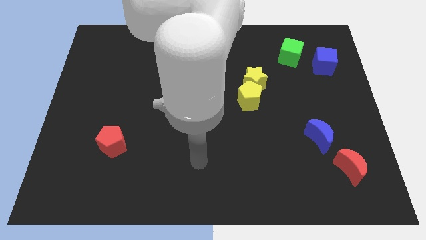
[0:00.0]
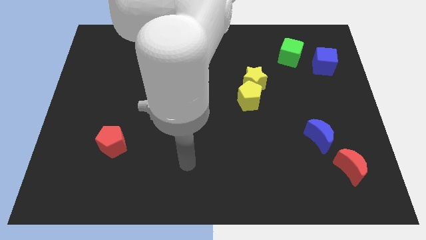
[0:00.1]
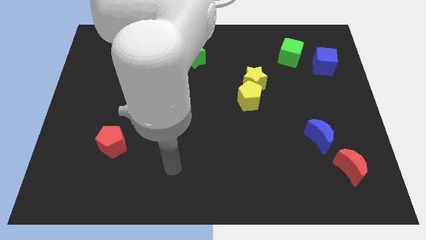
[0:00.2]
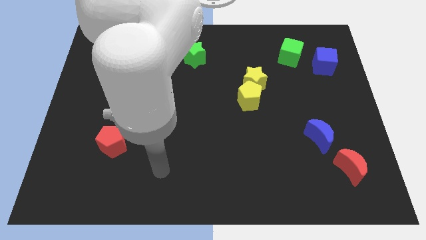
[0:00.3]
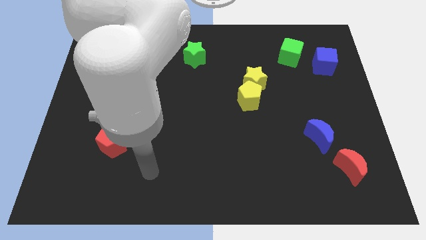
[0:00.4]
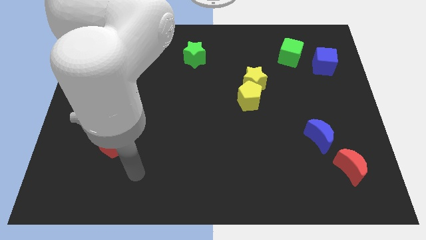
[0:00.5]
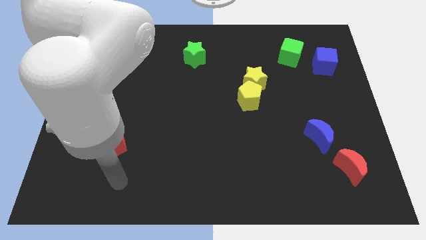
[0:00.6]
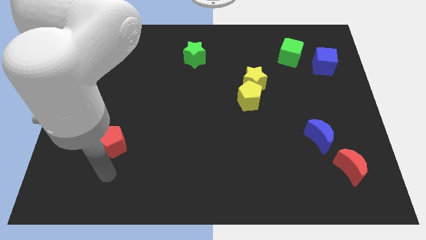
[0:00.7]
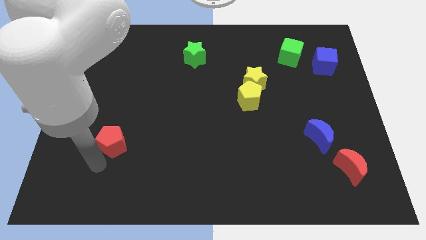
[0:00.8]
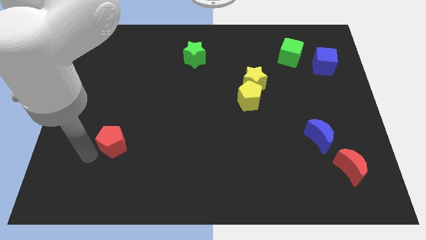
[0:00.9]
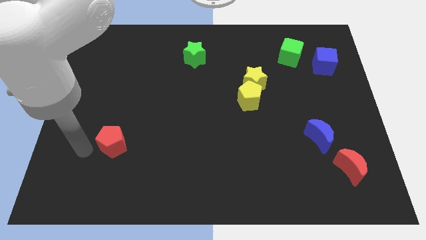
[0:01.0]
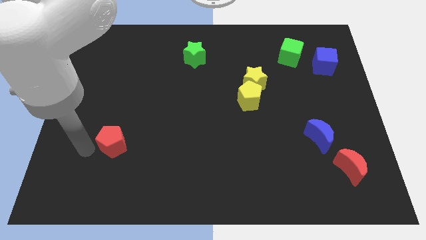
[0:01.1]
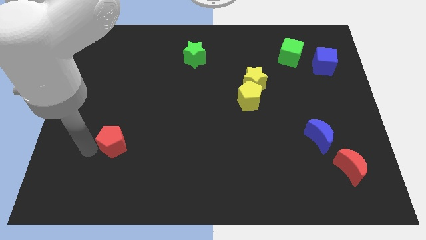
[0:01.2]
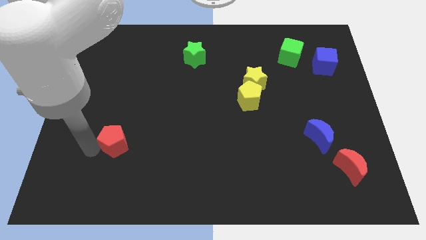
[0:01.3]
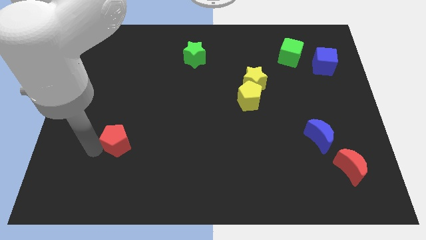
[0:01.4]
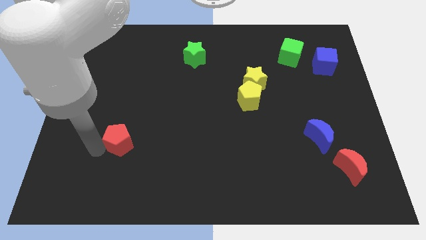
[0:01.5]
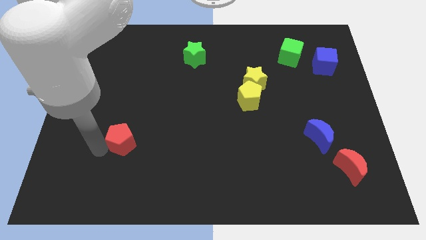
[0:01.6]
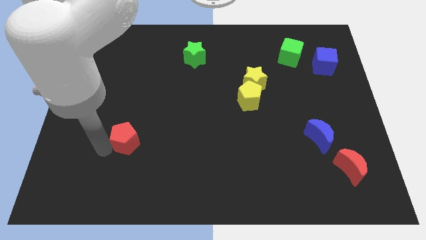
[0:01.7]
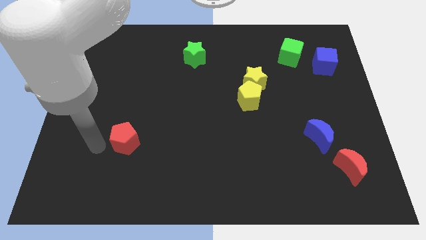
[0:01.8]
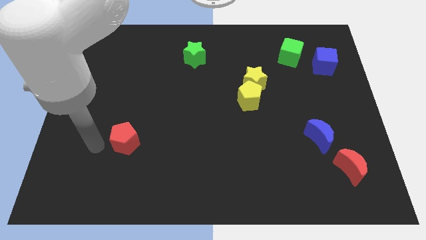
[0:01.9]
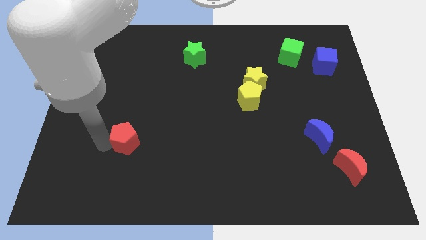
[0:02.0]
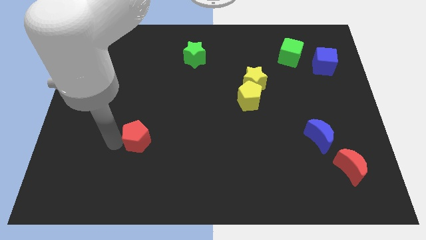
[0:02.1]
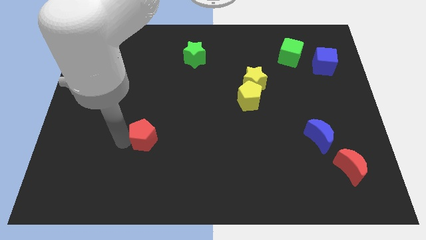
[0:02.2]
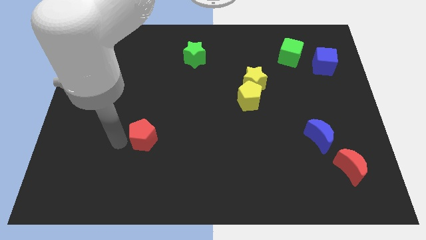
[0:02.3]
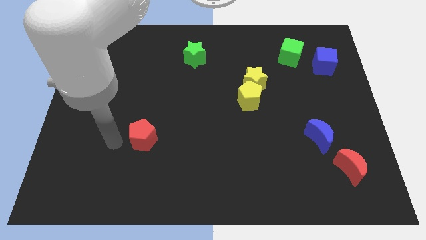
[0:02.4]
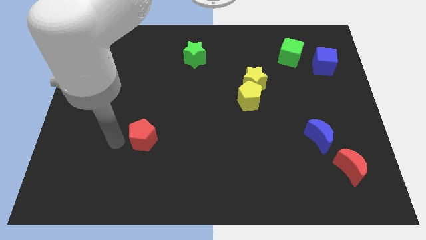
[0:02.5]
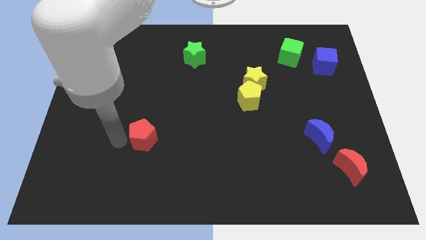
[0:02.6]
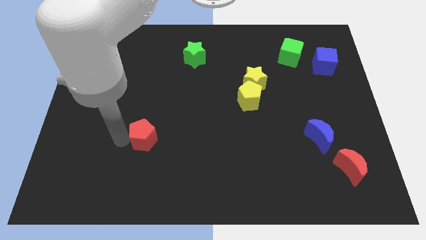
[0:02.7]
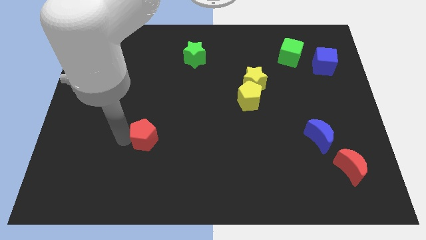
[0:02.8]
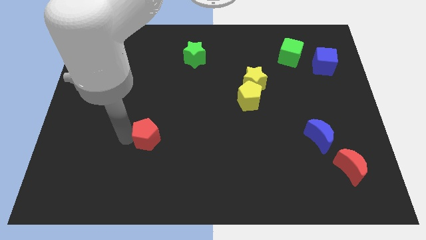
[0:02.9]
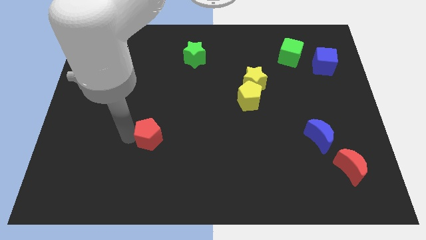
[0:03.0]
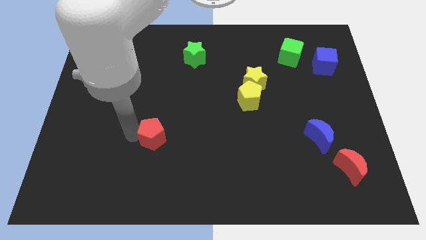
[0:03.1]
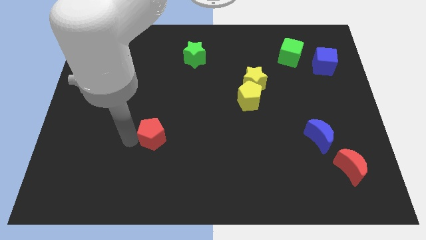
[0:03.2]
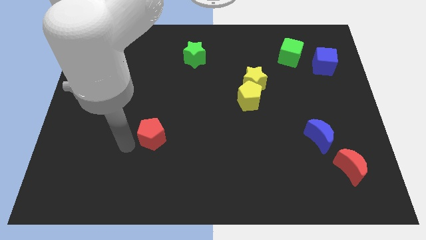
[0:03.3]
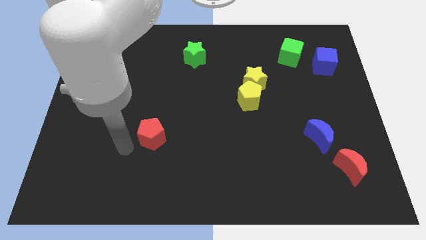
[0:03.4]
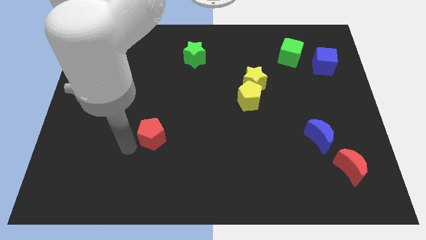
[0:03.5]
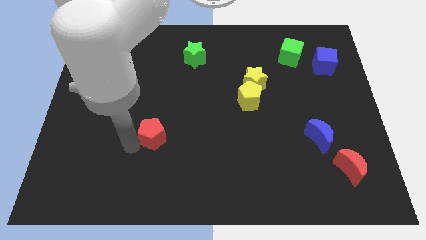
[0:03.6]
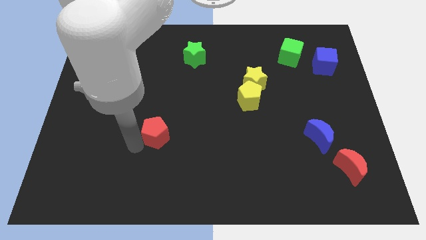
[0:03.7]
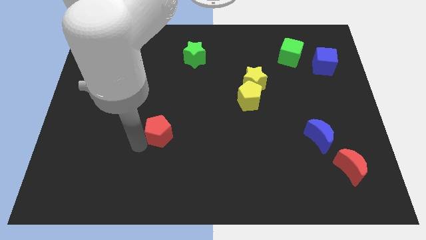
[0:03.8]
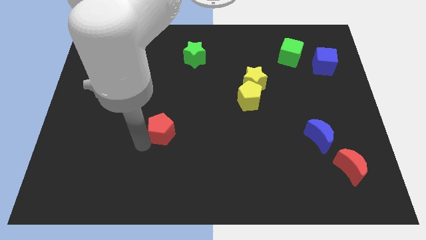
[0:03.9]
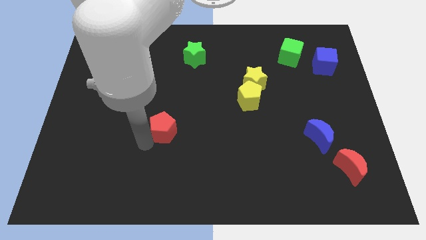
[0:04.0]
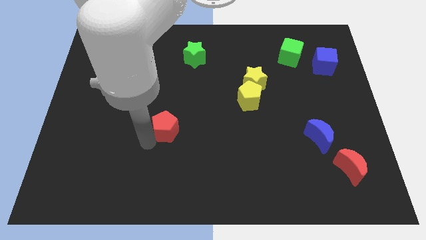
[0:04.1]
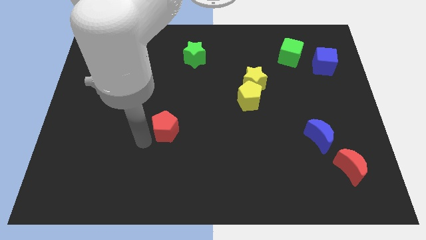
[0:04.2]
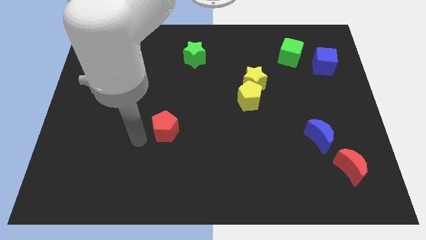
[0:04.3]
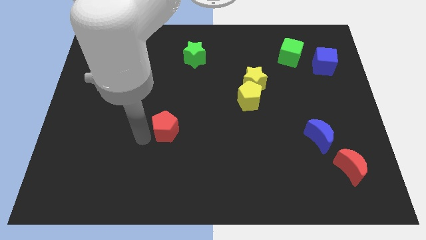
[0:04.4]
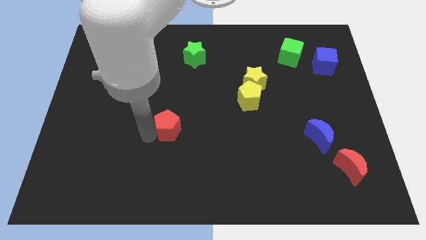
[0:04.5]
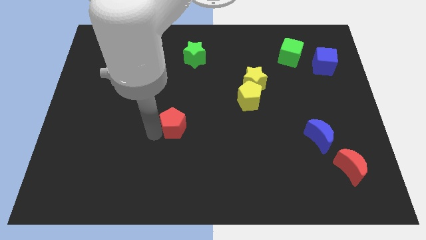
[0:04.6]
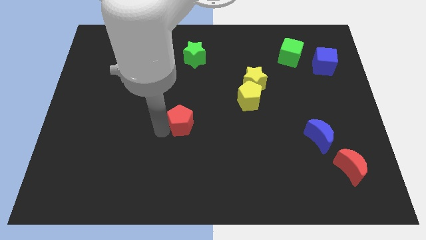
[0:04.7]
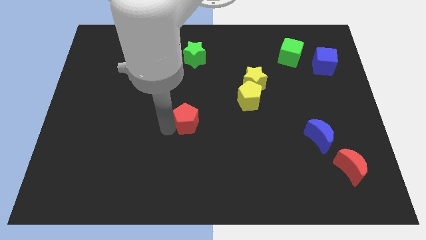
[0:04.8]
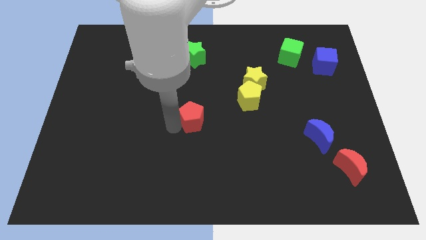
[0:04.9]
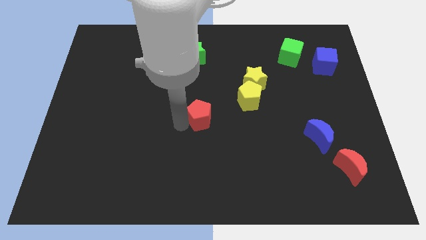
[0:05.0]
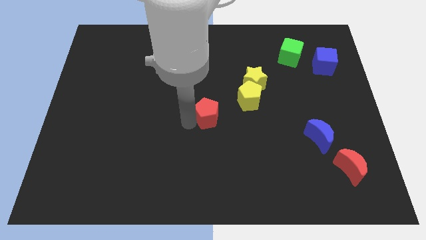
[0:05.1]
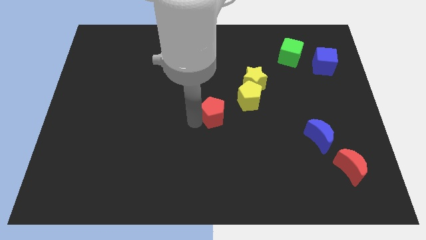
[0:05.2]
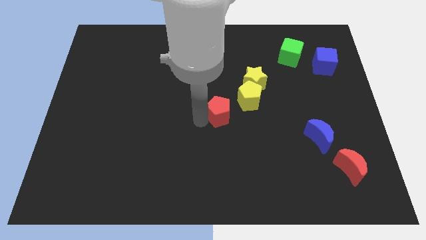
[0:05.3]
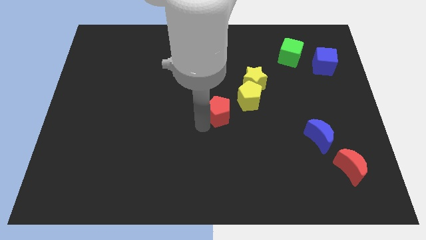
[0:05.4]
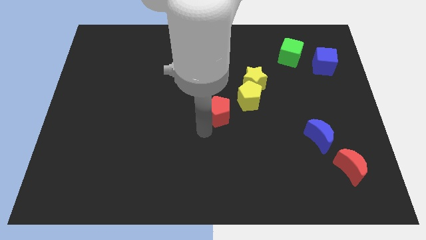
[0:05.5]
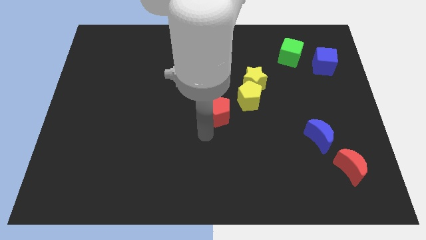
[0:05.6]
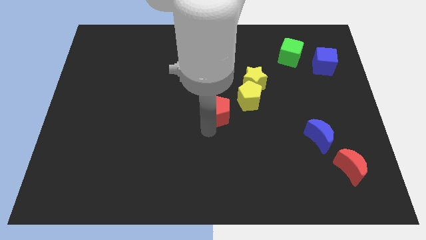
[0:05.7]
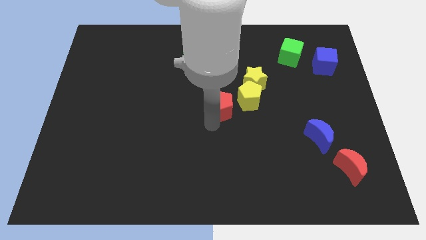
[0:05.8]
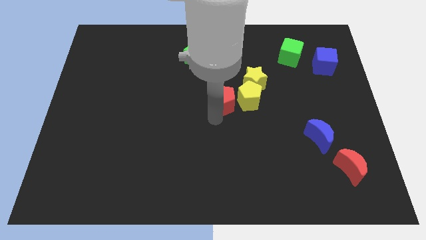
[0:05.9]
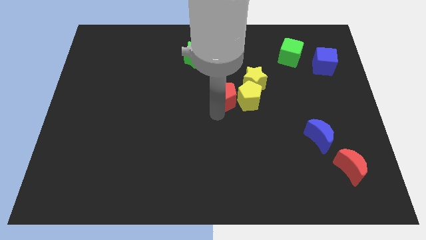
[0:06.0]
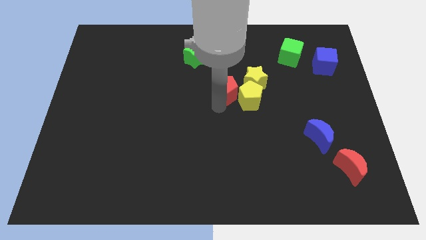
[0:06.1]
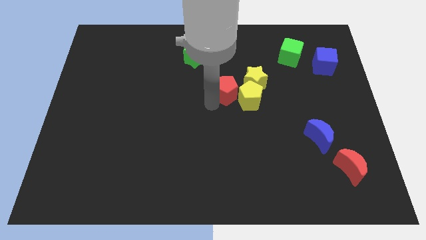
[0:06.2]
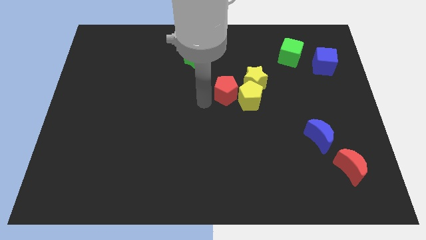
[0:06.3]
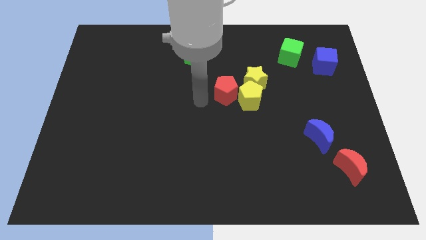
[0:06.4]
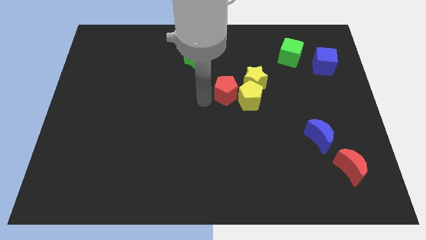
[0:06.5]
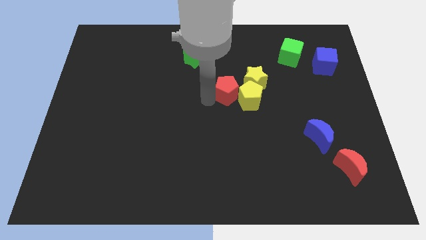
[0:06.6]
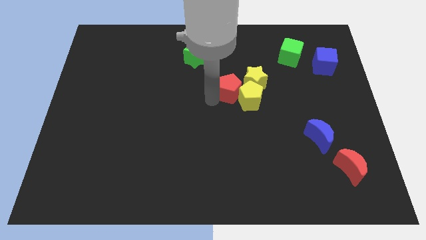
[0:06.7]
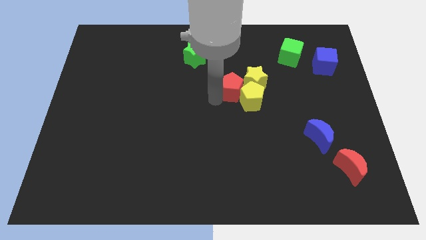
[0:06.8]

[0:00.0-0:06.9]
push the red pentagon towards the yellow star
